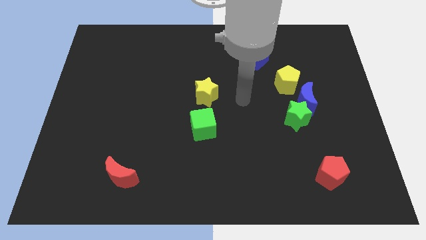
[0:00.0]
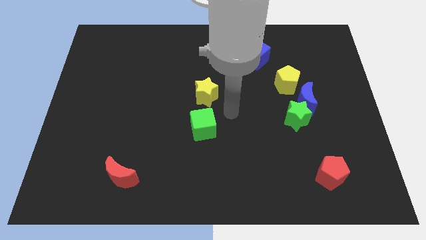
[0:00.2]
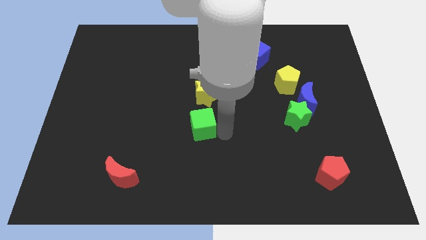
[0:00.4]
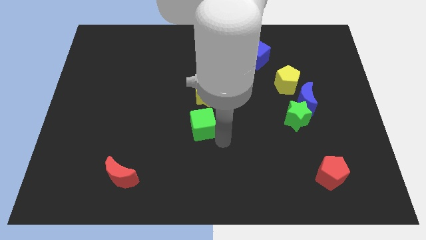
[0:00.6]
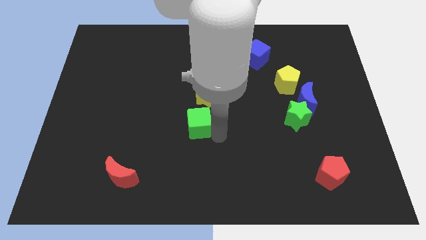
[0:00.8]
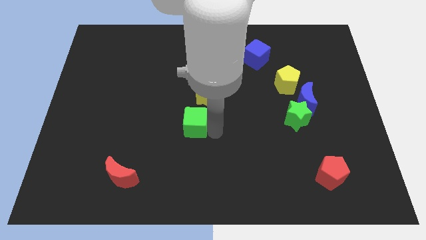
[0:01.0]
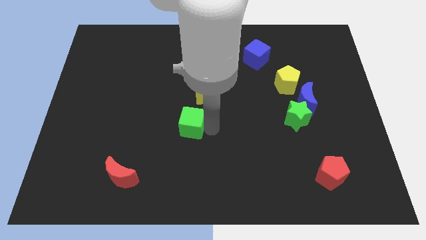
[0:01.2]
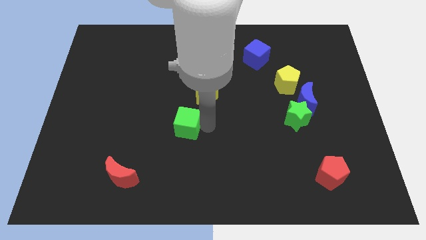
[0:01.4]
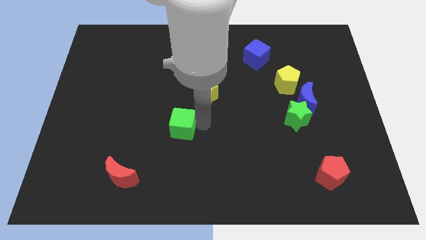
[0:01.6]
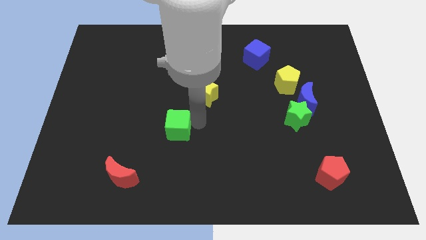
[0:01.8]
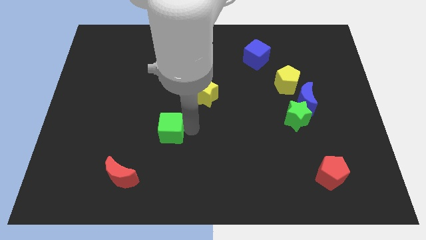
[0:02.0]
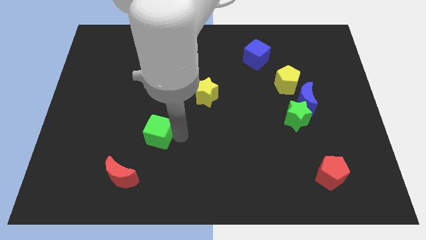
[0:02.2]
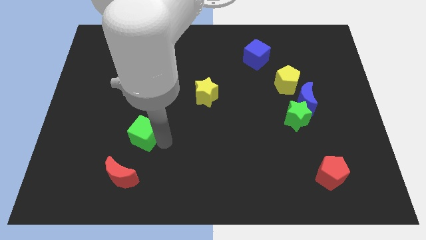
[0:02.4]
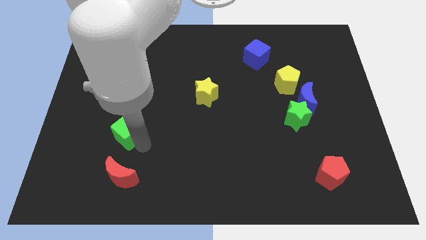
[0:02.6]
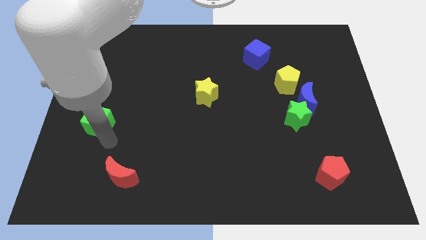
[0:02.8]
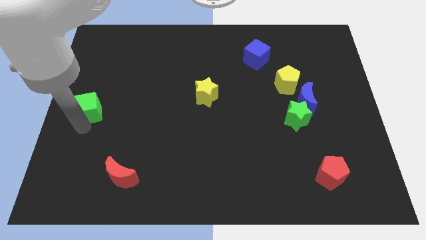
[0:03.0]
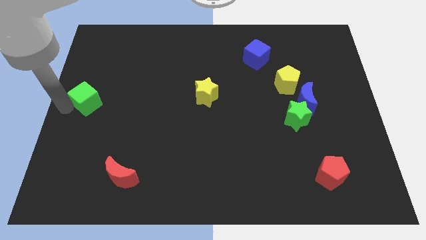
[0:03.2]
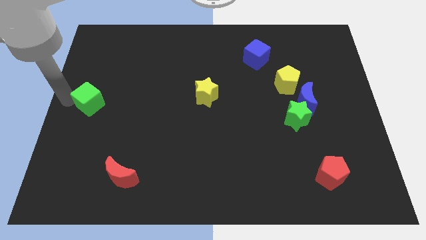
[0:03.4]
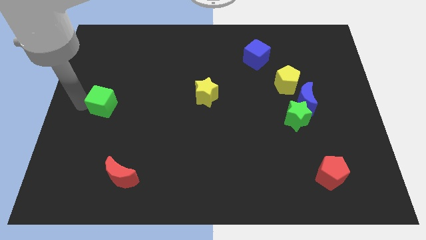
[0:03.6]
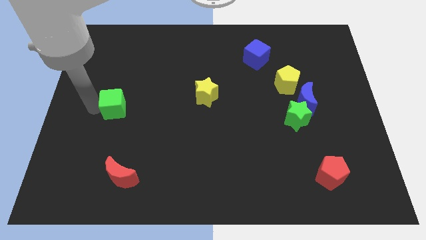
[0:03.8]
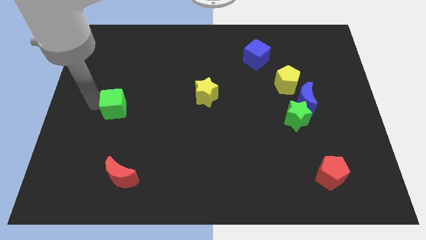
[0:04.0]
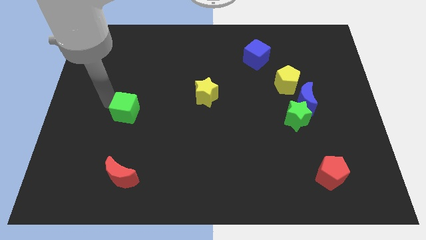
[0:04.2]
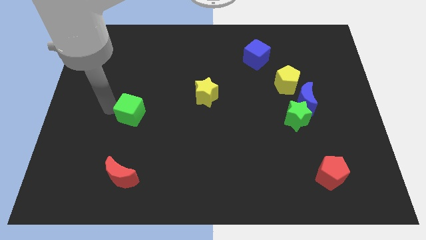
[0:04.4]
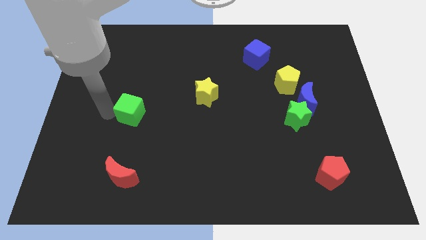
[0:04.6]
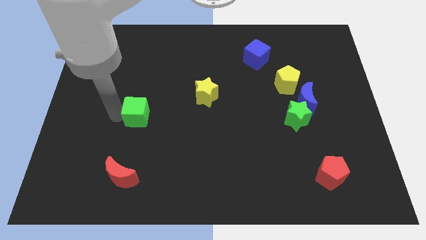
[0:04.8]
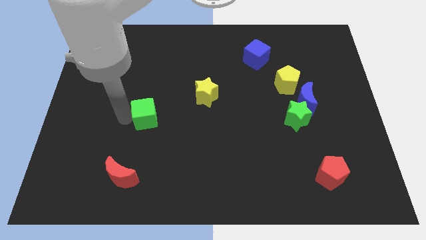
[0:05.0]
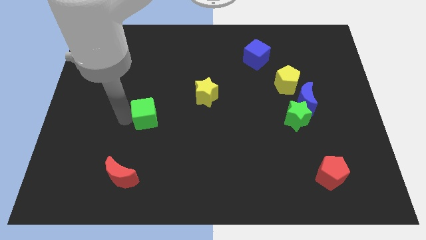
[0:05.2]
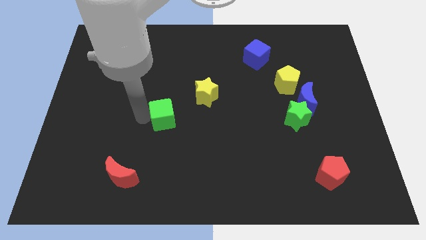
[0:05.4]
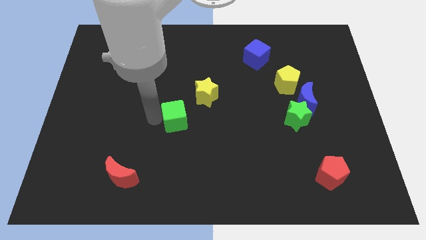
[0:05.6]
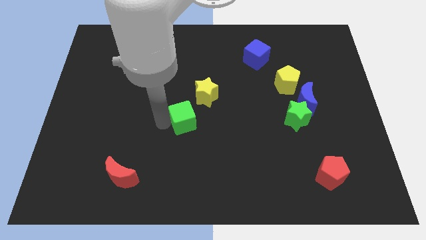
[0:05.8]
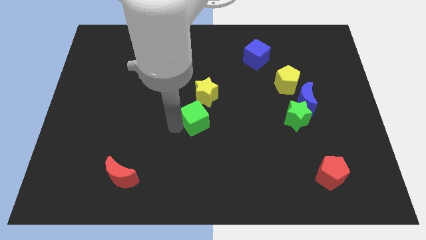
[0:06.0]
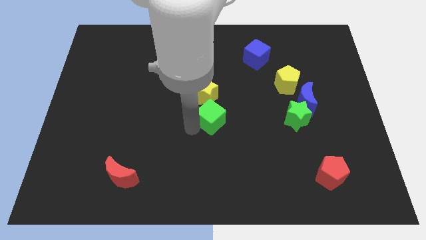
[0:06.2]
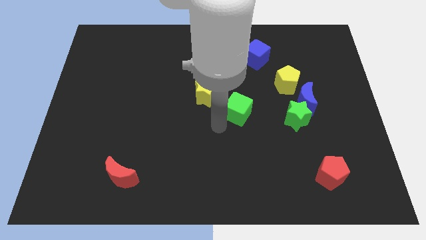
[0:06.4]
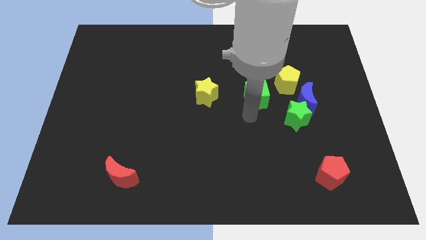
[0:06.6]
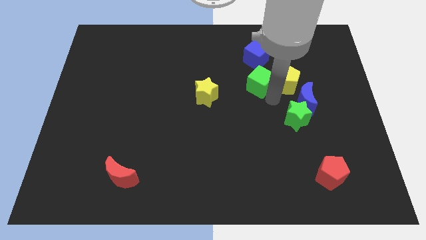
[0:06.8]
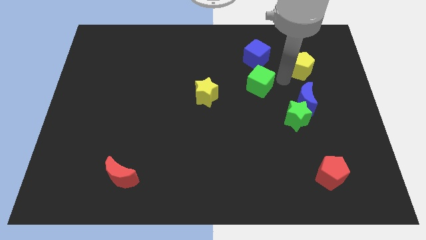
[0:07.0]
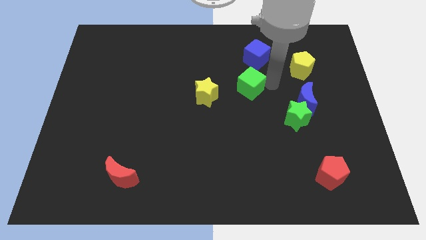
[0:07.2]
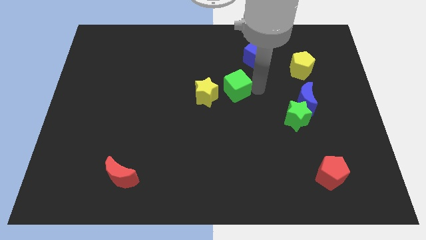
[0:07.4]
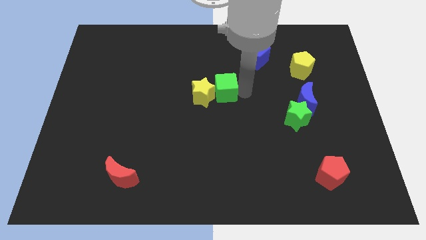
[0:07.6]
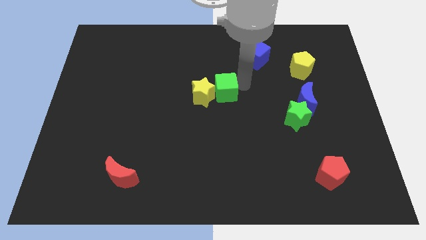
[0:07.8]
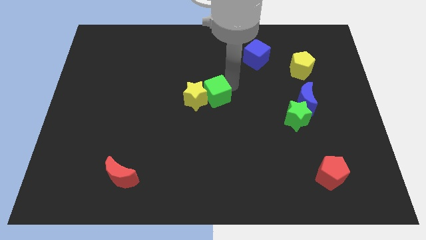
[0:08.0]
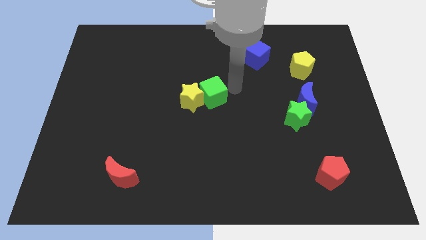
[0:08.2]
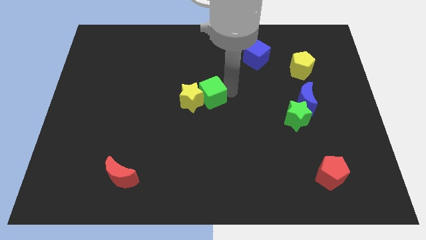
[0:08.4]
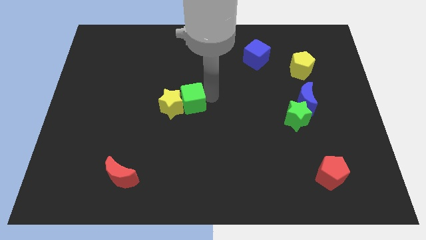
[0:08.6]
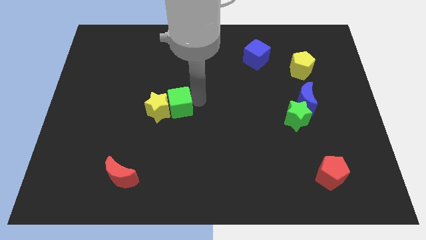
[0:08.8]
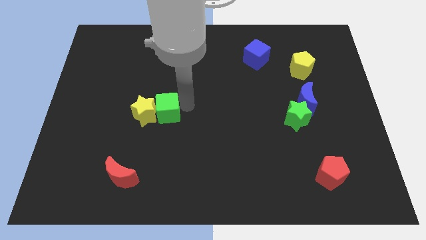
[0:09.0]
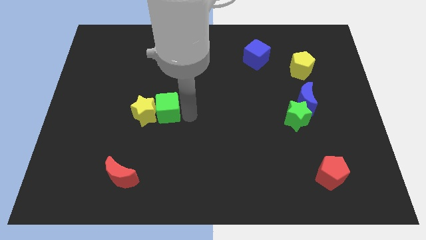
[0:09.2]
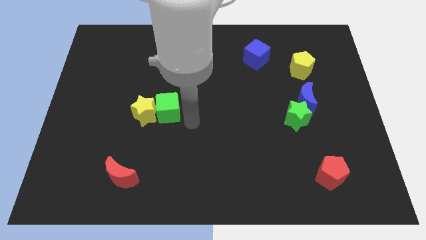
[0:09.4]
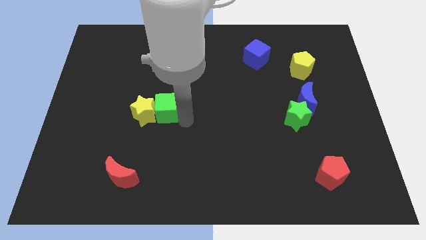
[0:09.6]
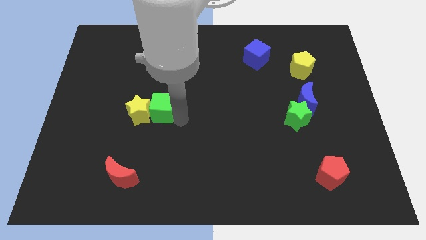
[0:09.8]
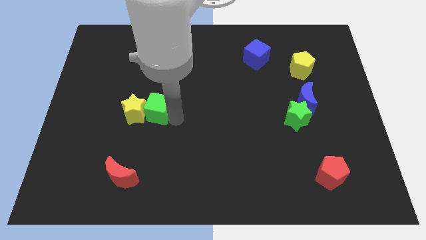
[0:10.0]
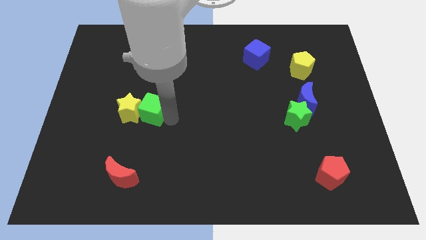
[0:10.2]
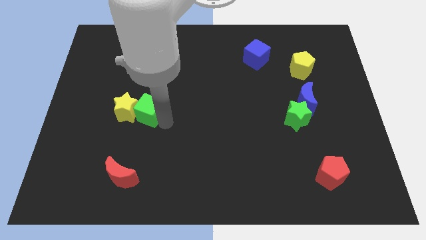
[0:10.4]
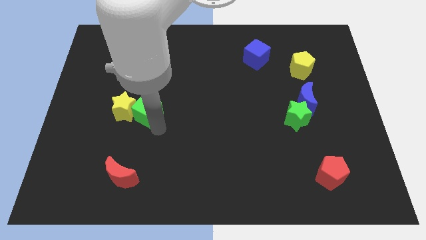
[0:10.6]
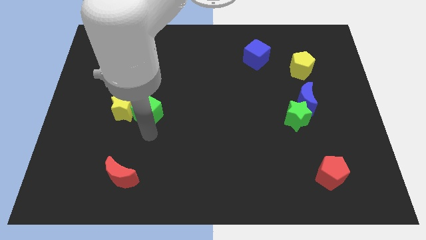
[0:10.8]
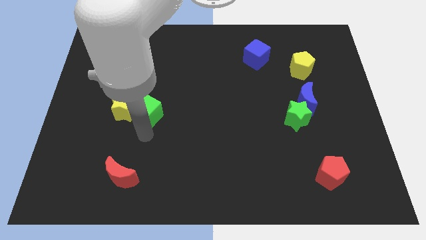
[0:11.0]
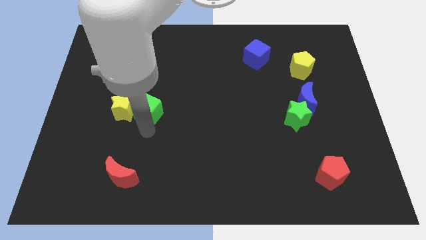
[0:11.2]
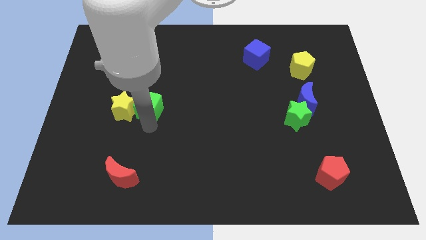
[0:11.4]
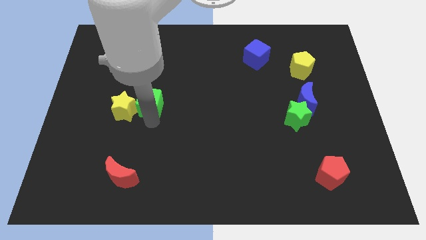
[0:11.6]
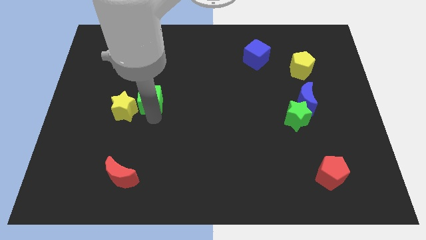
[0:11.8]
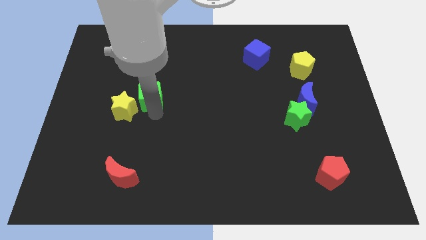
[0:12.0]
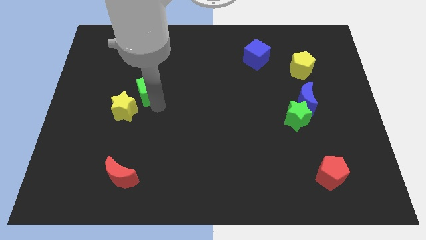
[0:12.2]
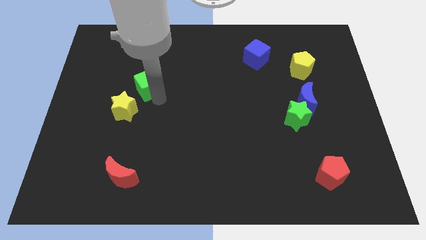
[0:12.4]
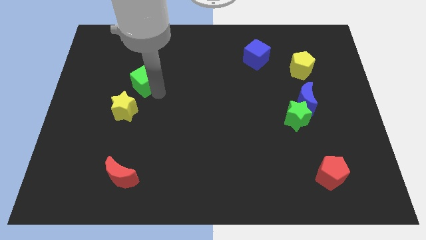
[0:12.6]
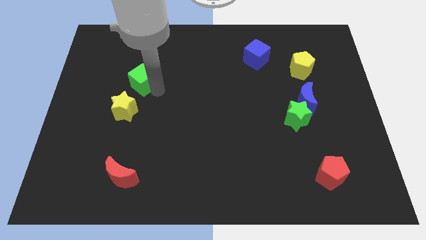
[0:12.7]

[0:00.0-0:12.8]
push the green cube diagonally up and left

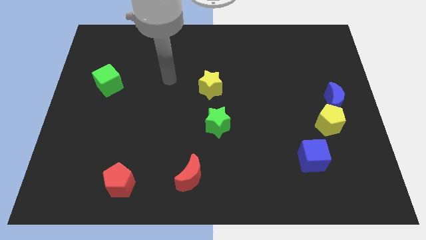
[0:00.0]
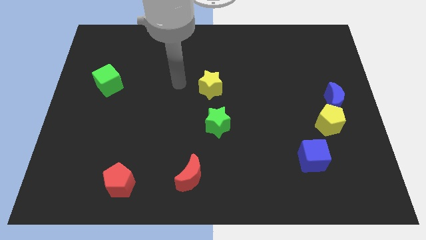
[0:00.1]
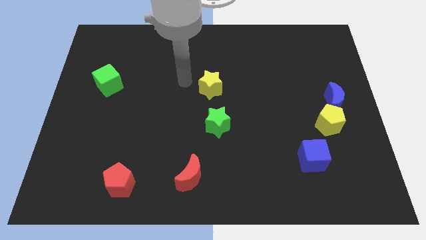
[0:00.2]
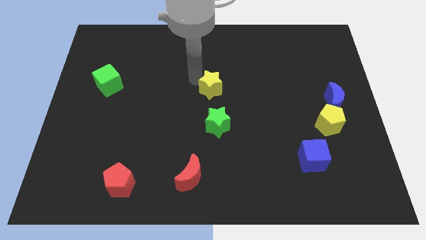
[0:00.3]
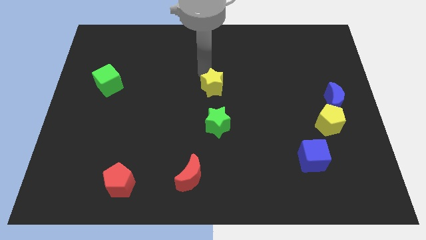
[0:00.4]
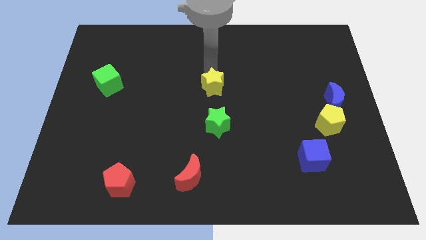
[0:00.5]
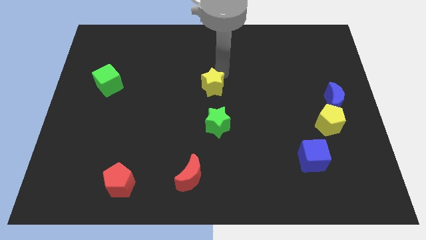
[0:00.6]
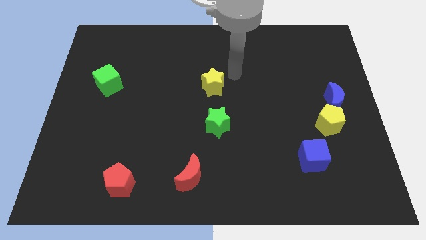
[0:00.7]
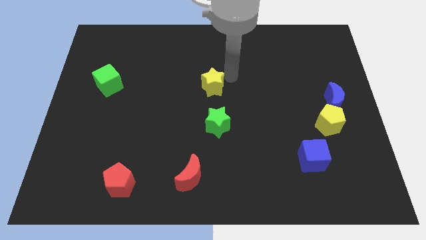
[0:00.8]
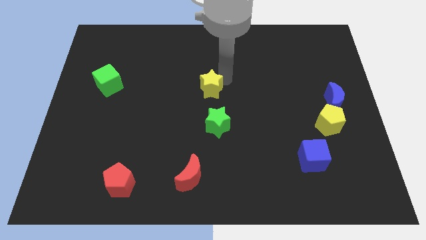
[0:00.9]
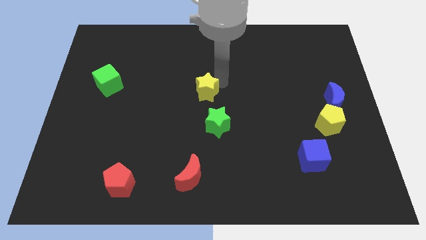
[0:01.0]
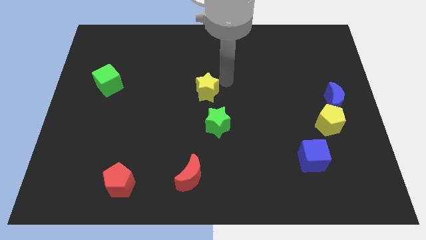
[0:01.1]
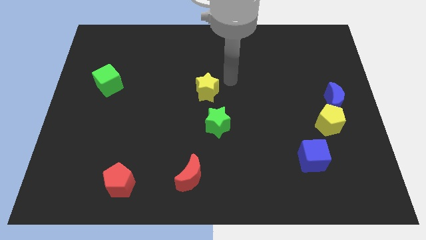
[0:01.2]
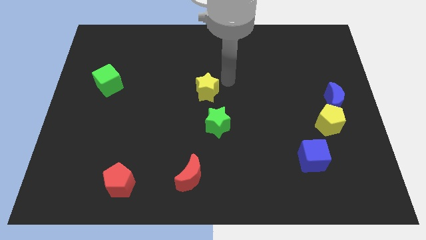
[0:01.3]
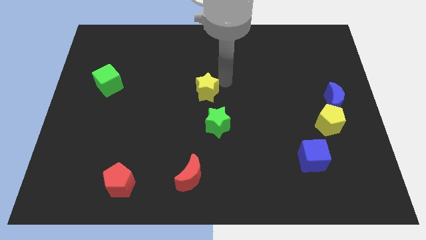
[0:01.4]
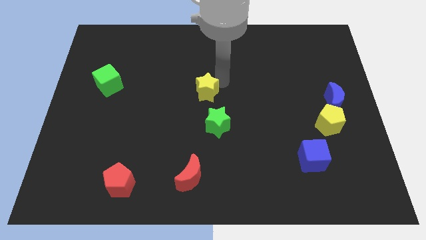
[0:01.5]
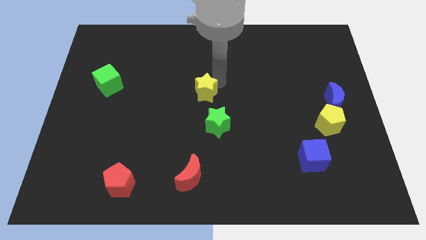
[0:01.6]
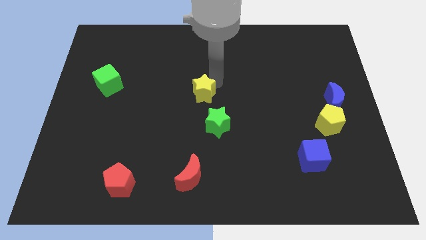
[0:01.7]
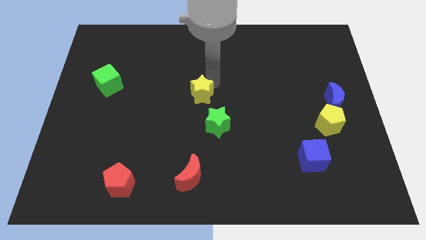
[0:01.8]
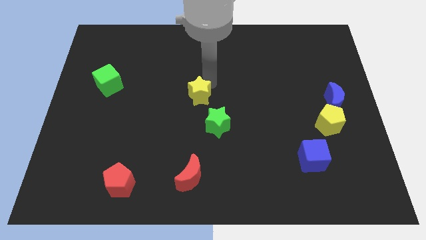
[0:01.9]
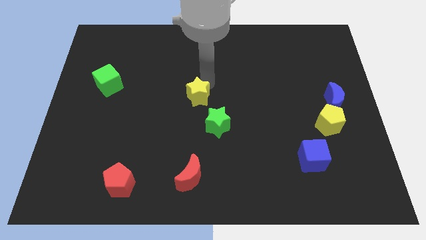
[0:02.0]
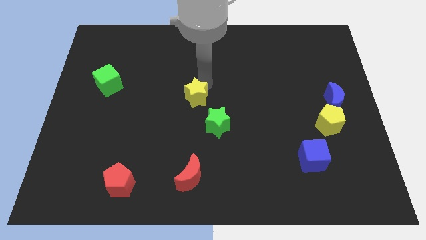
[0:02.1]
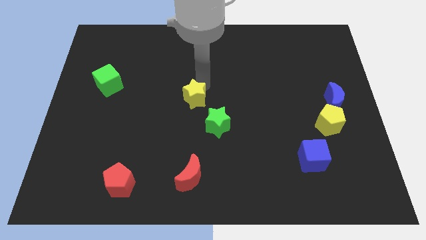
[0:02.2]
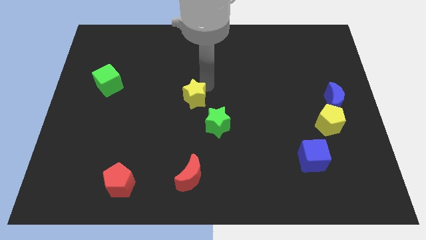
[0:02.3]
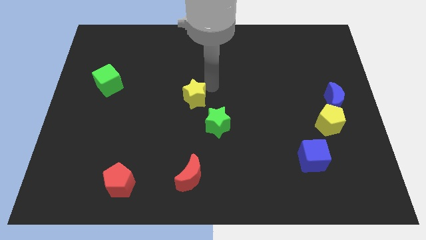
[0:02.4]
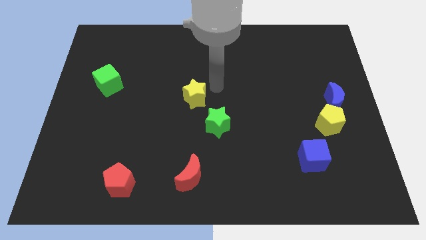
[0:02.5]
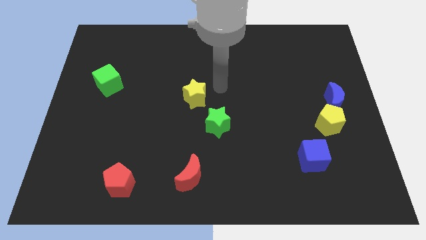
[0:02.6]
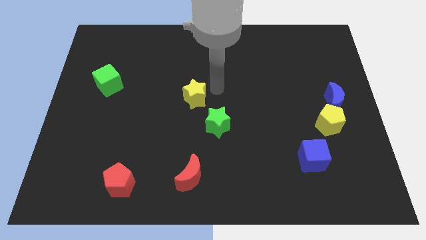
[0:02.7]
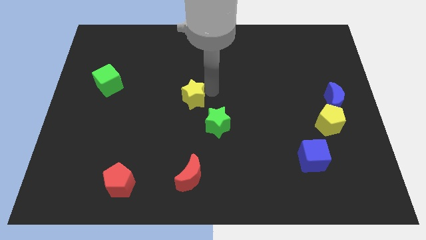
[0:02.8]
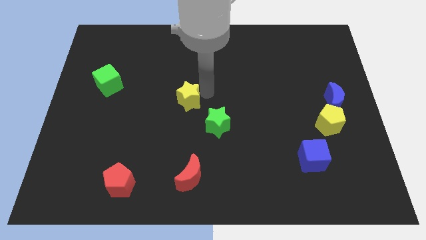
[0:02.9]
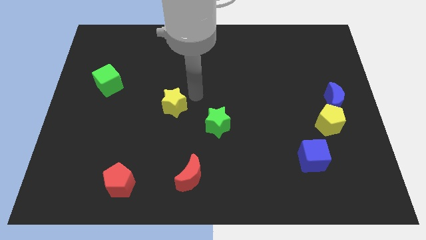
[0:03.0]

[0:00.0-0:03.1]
slide the yellow star a bit downwards and left
